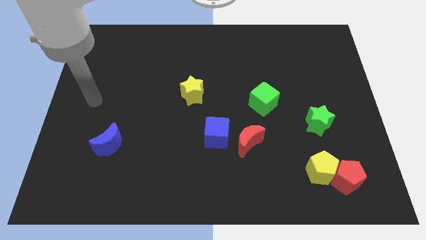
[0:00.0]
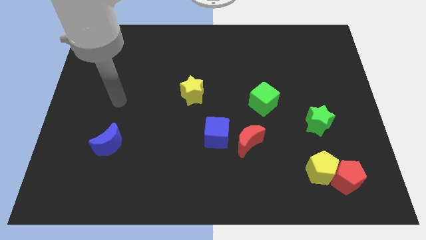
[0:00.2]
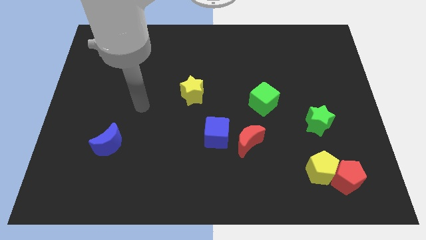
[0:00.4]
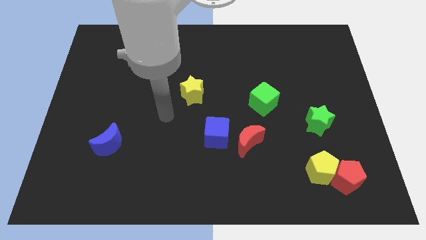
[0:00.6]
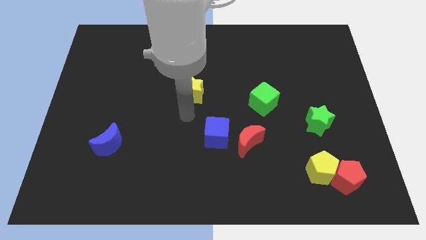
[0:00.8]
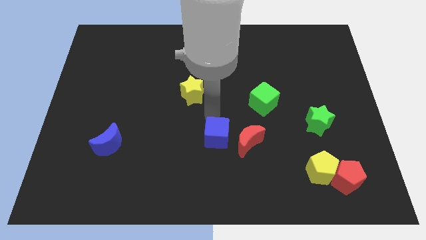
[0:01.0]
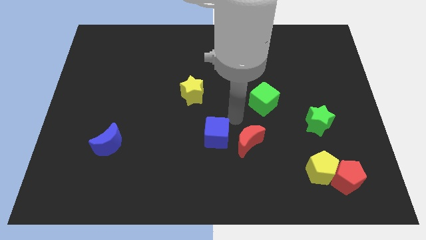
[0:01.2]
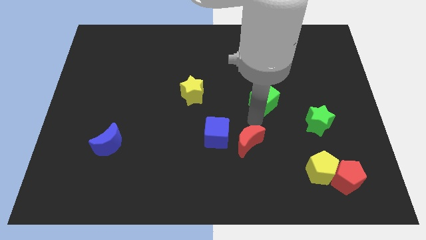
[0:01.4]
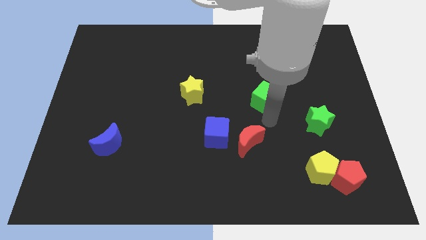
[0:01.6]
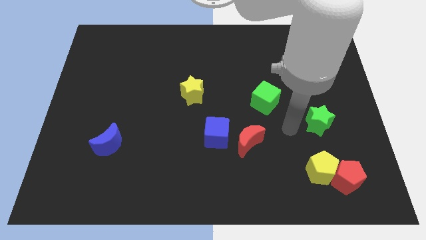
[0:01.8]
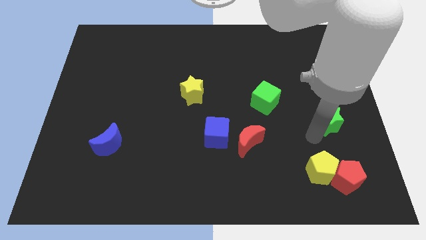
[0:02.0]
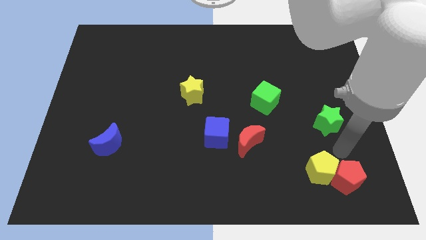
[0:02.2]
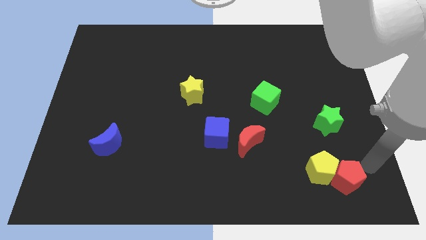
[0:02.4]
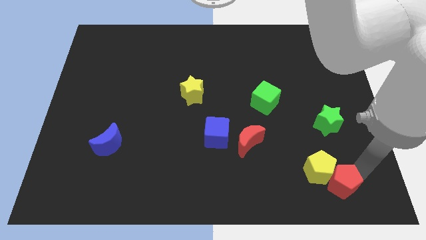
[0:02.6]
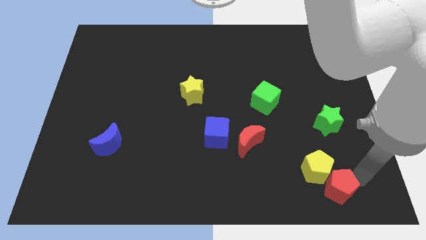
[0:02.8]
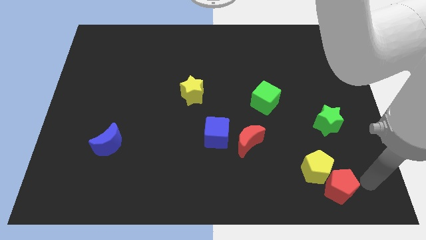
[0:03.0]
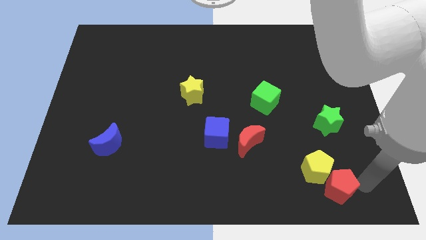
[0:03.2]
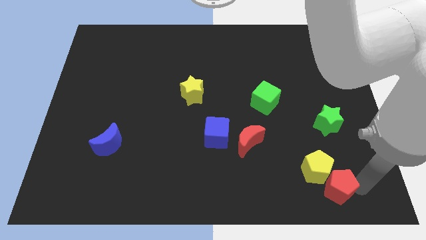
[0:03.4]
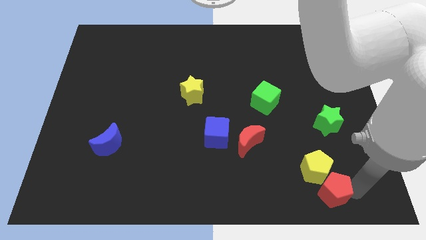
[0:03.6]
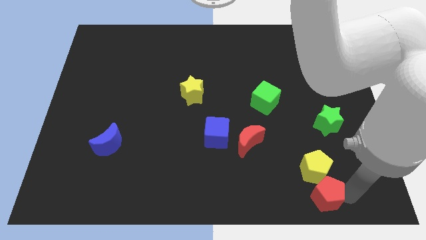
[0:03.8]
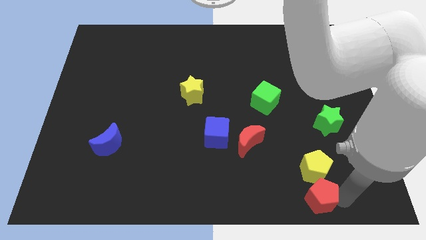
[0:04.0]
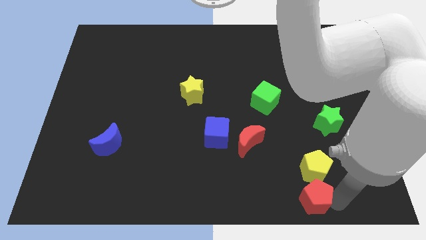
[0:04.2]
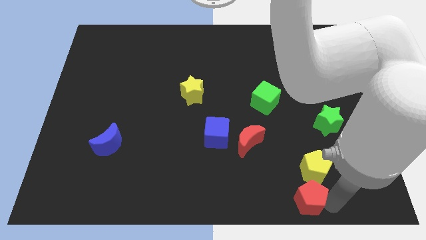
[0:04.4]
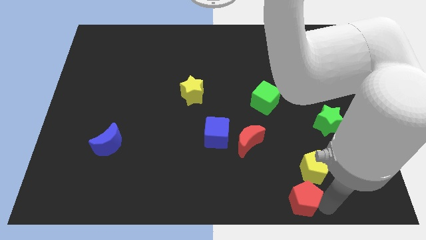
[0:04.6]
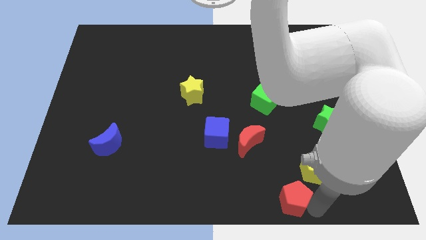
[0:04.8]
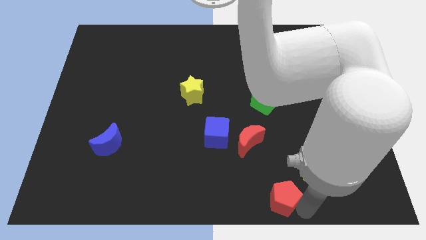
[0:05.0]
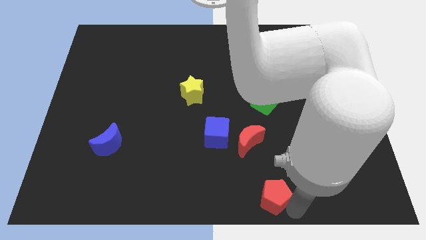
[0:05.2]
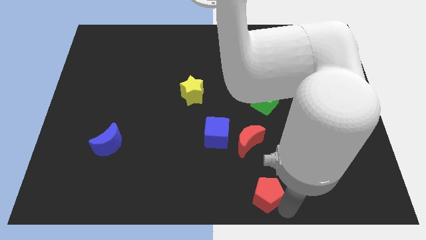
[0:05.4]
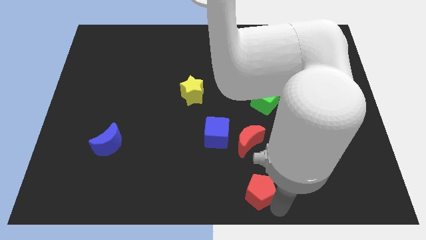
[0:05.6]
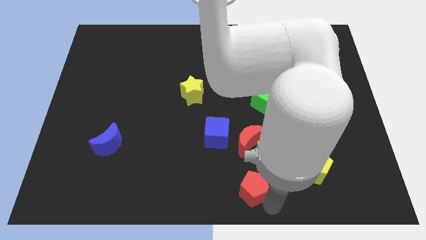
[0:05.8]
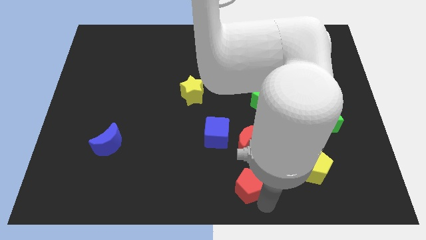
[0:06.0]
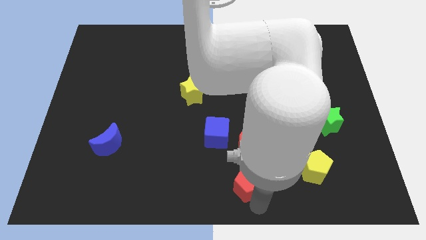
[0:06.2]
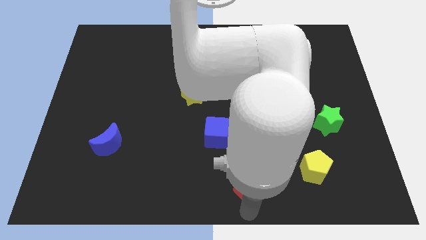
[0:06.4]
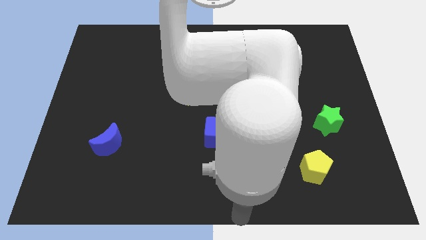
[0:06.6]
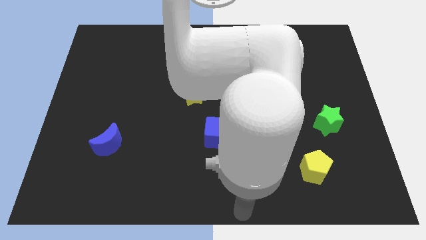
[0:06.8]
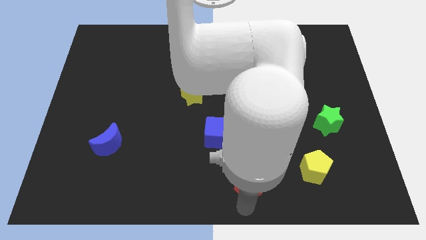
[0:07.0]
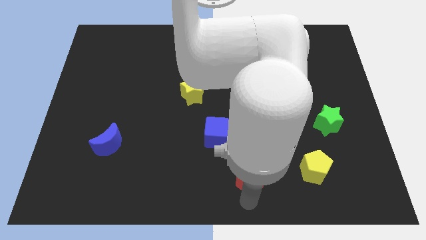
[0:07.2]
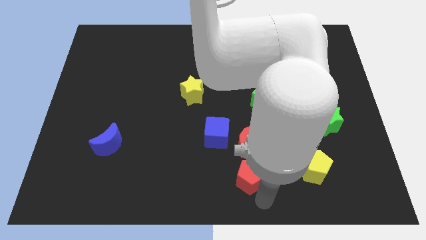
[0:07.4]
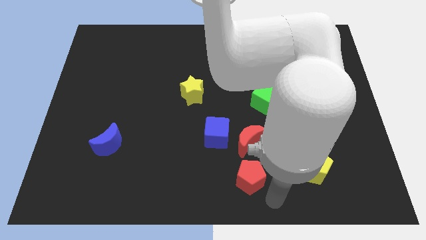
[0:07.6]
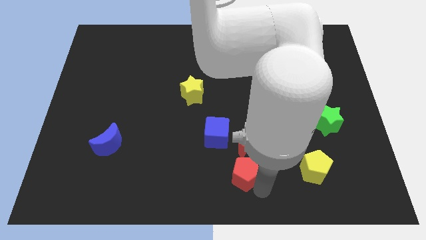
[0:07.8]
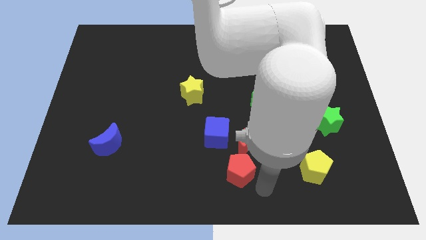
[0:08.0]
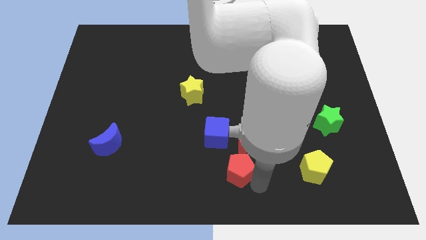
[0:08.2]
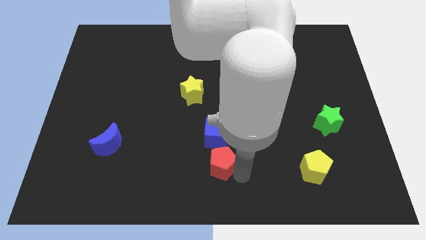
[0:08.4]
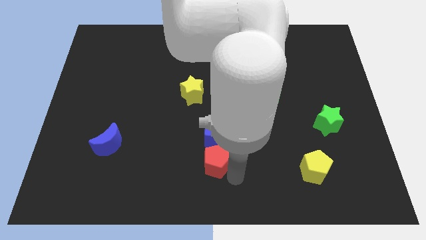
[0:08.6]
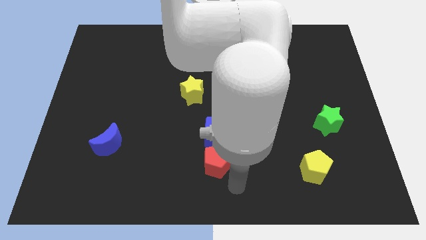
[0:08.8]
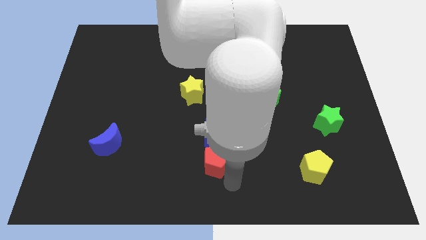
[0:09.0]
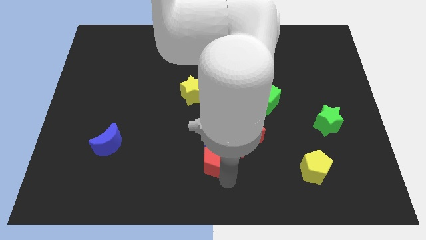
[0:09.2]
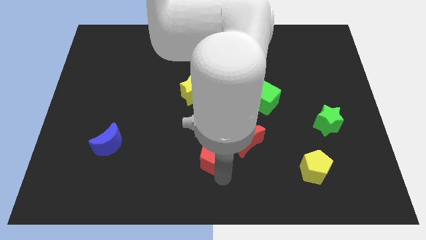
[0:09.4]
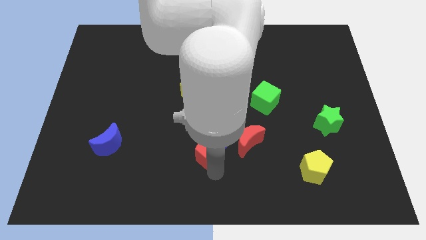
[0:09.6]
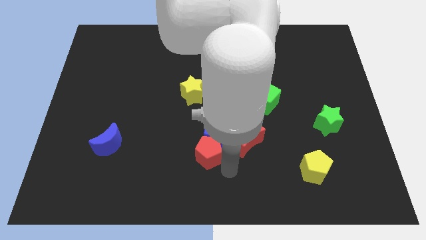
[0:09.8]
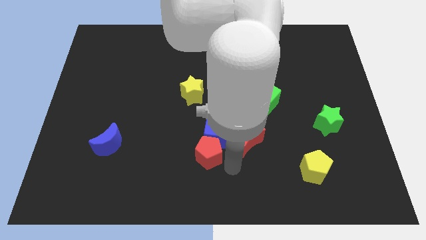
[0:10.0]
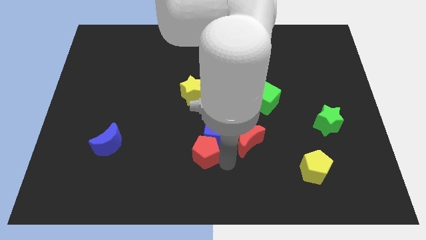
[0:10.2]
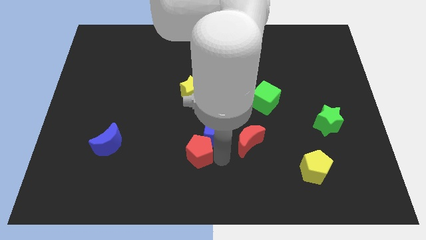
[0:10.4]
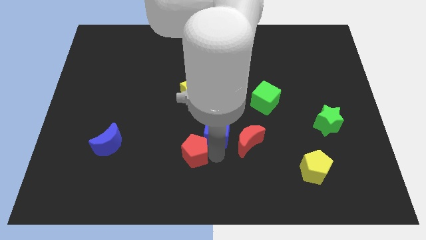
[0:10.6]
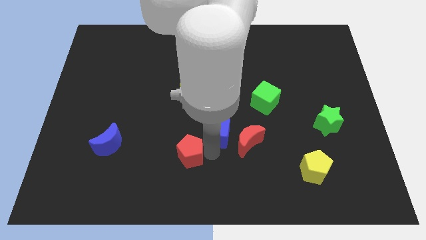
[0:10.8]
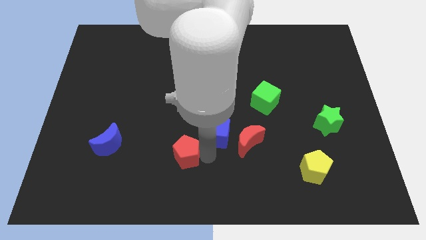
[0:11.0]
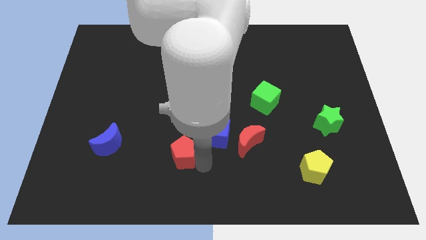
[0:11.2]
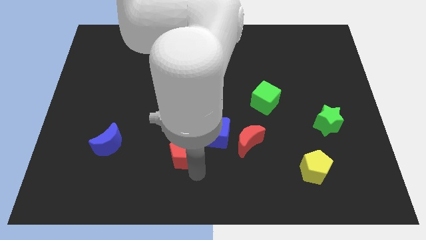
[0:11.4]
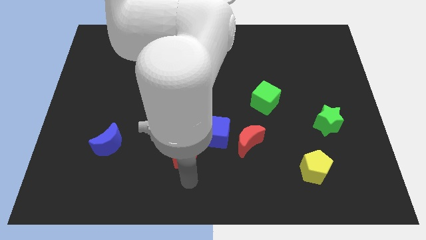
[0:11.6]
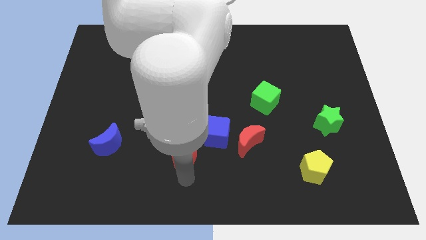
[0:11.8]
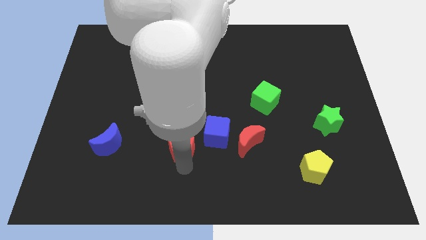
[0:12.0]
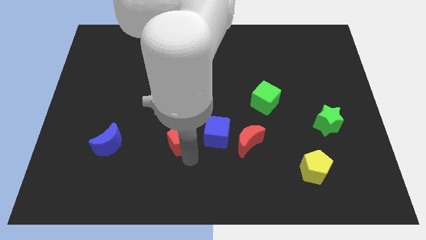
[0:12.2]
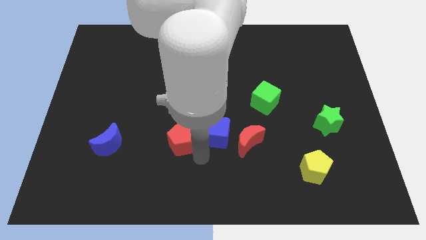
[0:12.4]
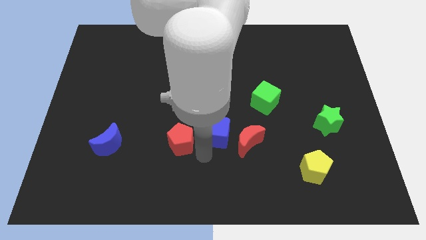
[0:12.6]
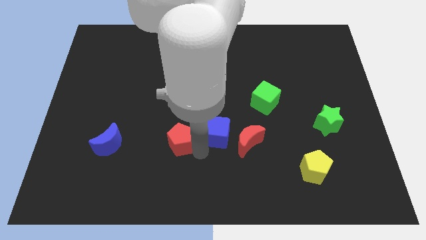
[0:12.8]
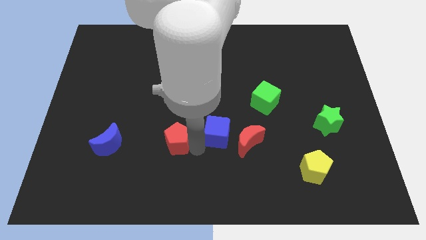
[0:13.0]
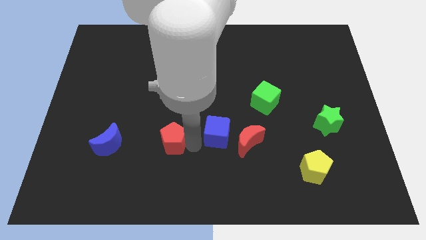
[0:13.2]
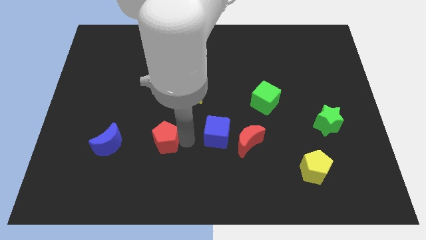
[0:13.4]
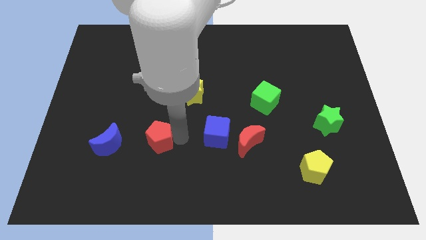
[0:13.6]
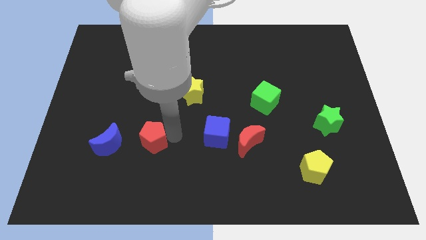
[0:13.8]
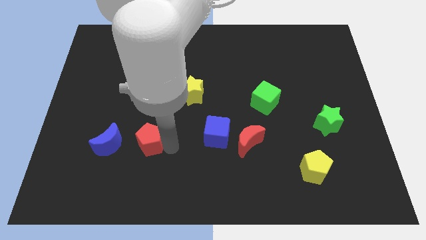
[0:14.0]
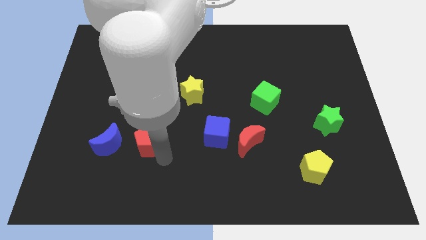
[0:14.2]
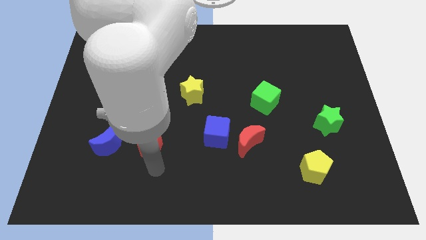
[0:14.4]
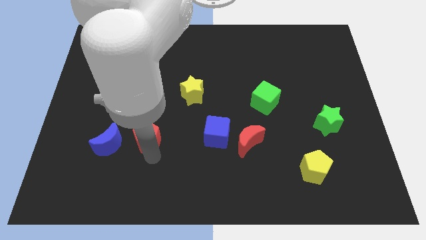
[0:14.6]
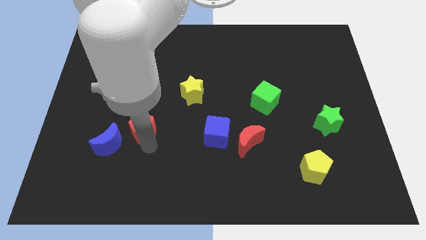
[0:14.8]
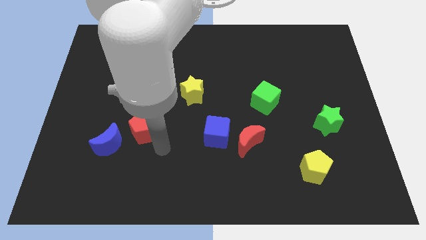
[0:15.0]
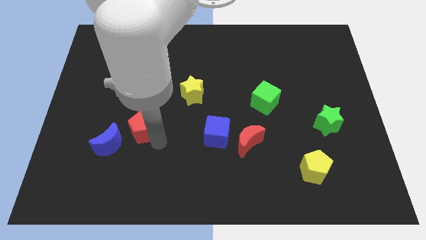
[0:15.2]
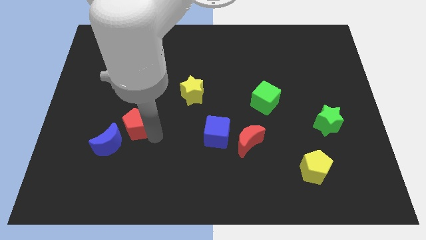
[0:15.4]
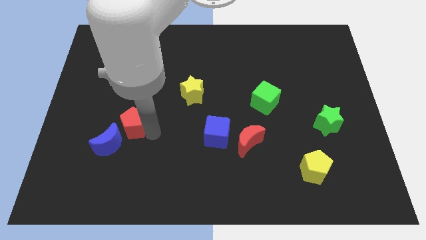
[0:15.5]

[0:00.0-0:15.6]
push the red pentagon above the blue moon
